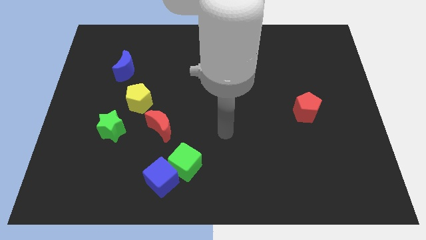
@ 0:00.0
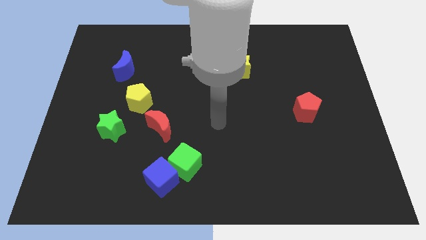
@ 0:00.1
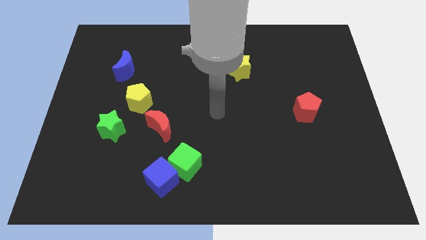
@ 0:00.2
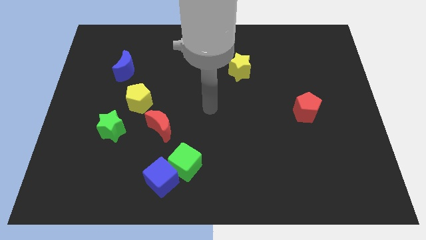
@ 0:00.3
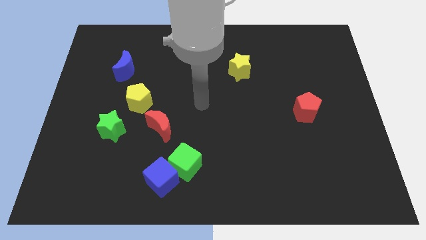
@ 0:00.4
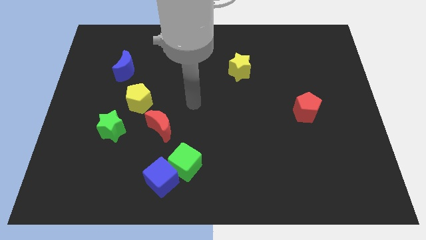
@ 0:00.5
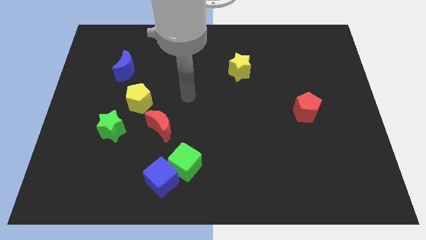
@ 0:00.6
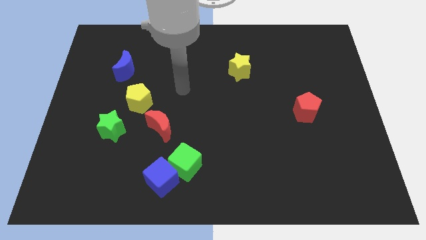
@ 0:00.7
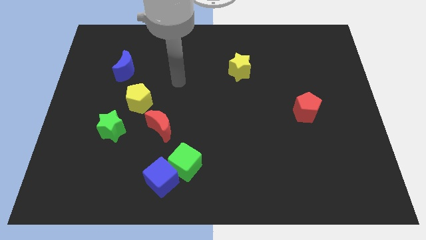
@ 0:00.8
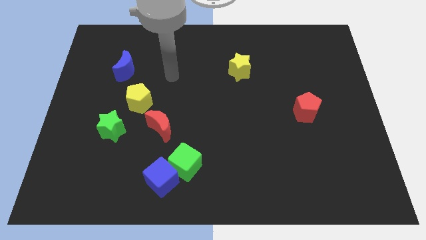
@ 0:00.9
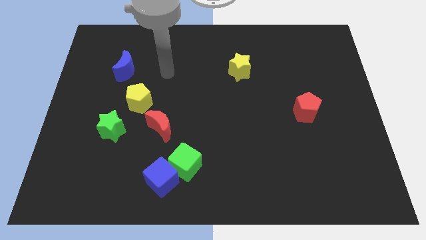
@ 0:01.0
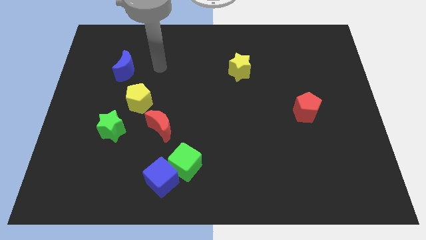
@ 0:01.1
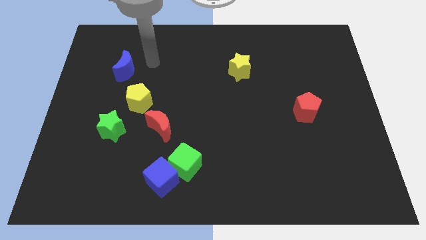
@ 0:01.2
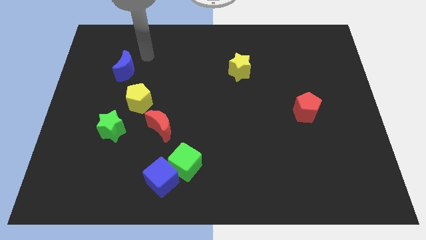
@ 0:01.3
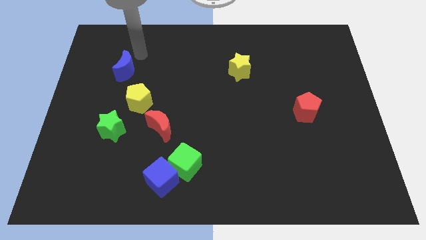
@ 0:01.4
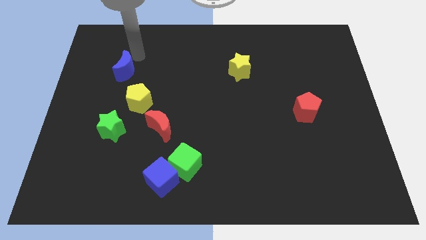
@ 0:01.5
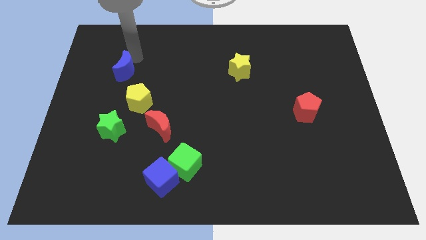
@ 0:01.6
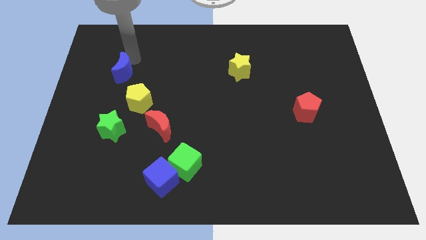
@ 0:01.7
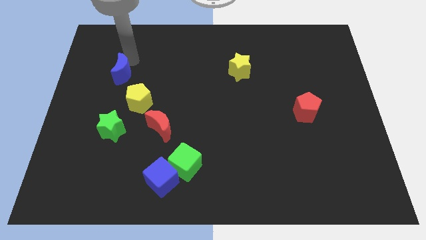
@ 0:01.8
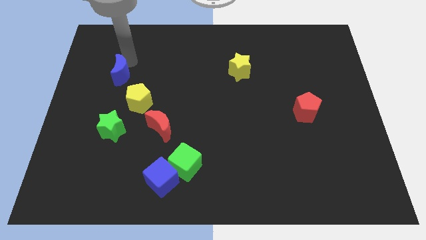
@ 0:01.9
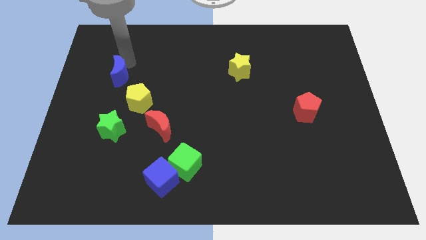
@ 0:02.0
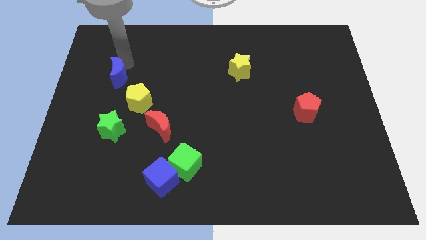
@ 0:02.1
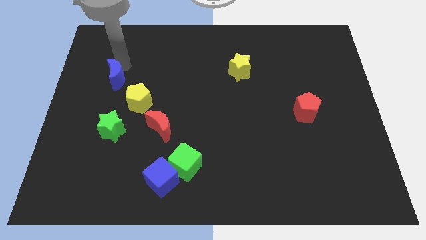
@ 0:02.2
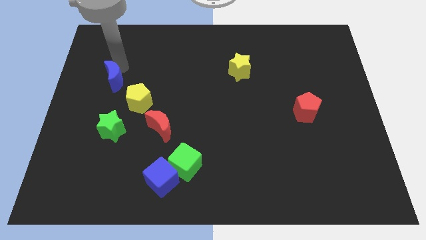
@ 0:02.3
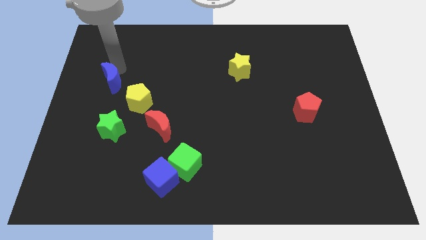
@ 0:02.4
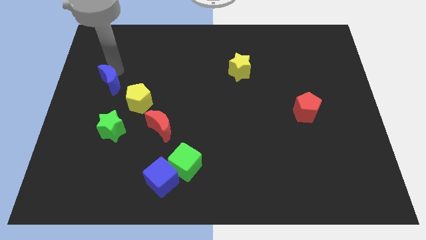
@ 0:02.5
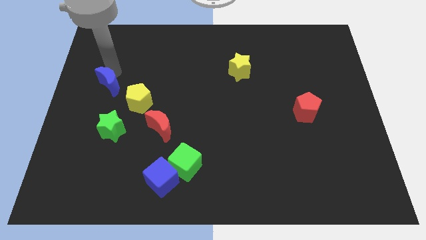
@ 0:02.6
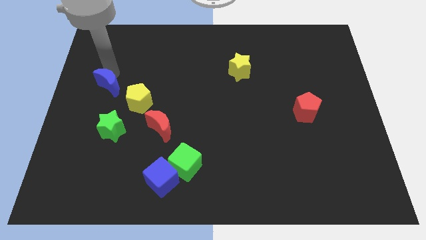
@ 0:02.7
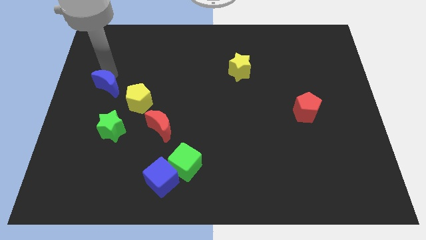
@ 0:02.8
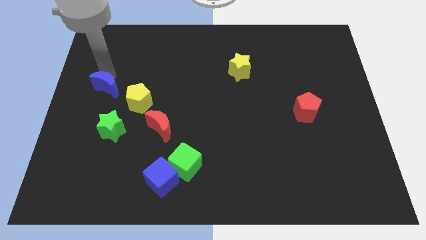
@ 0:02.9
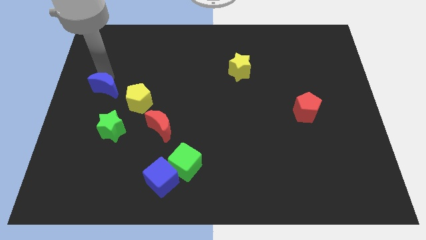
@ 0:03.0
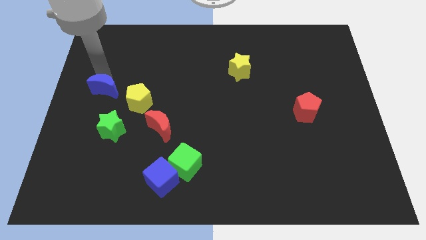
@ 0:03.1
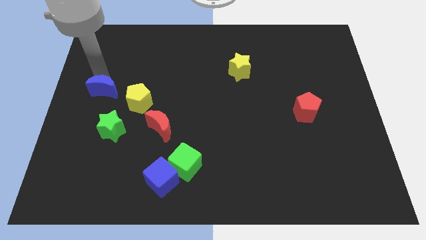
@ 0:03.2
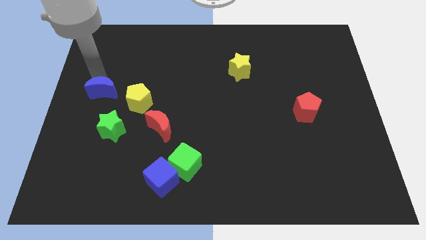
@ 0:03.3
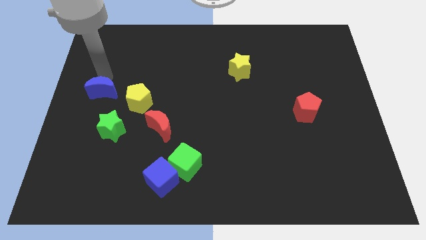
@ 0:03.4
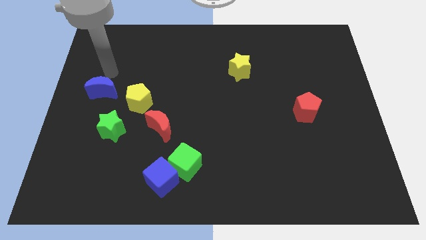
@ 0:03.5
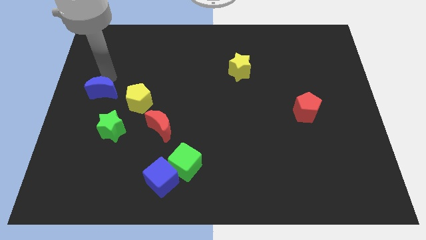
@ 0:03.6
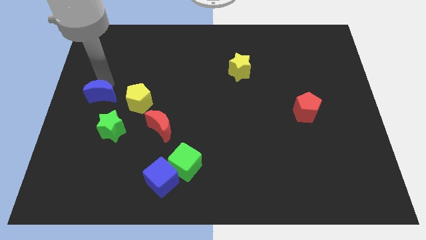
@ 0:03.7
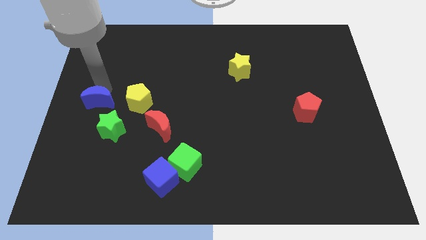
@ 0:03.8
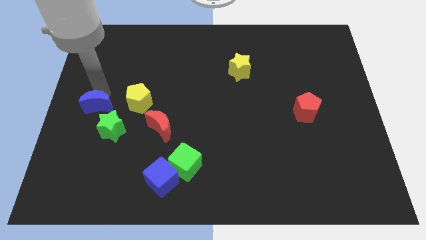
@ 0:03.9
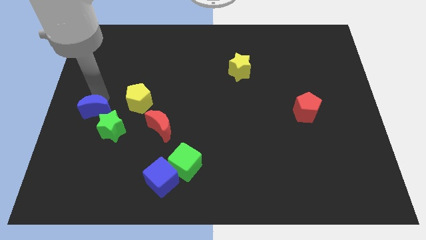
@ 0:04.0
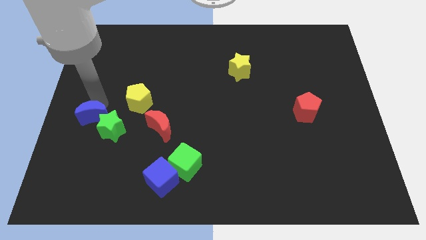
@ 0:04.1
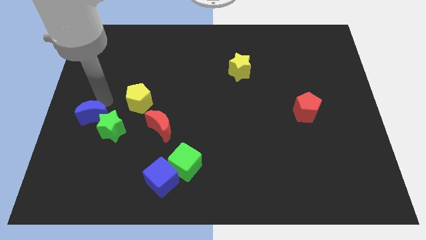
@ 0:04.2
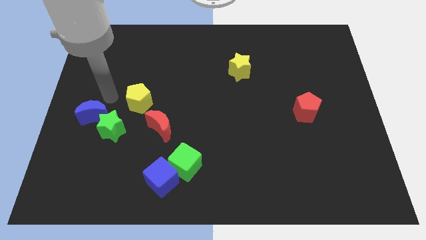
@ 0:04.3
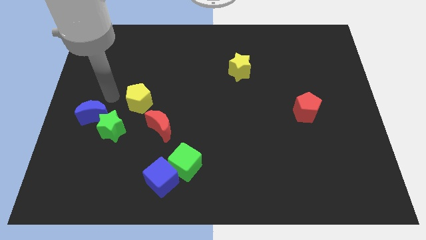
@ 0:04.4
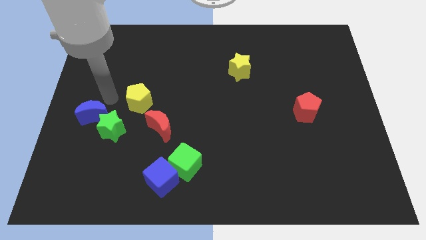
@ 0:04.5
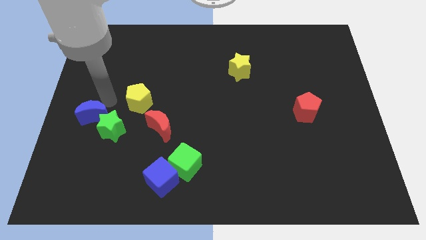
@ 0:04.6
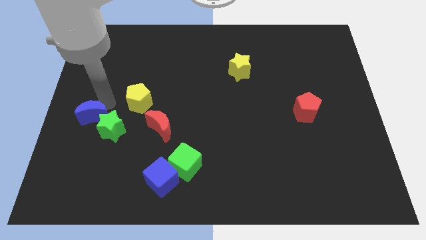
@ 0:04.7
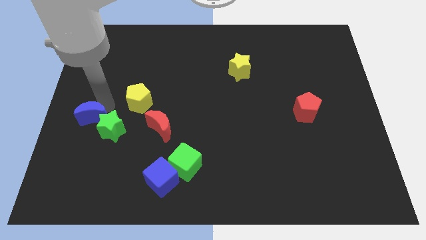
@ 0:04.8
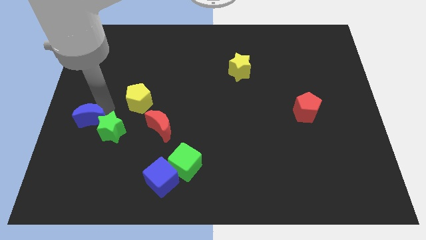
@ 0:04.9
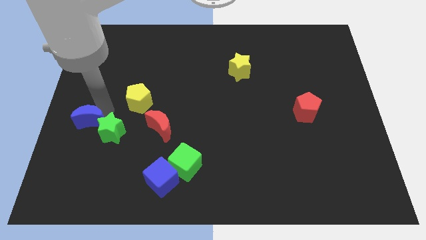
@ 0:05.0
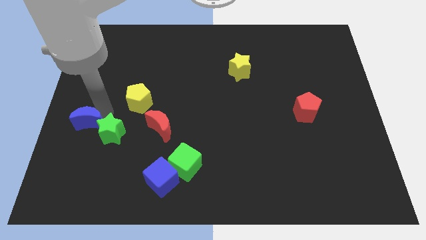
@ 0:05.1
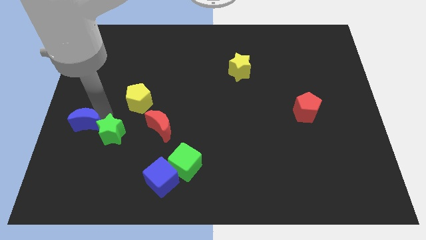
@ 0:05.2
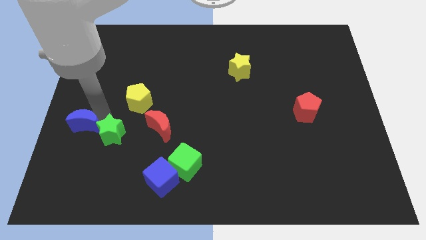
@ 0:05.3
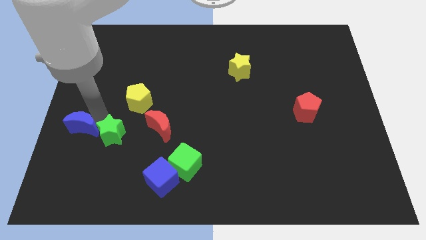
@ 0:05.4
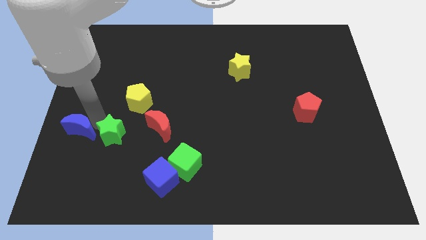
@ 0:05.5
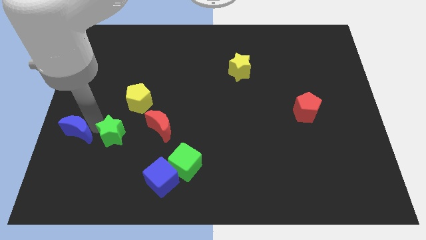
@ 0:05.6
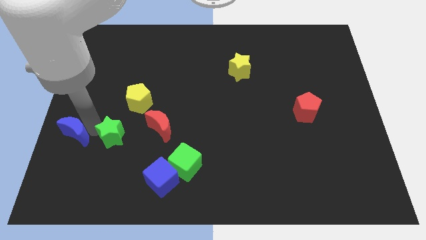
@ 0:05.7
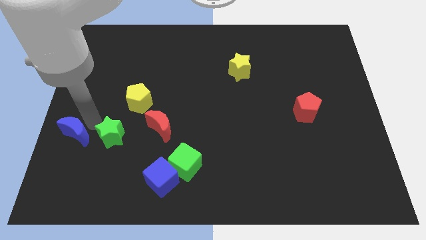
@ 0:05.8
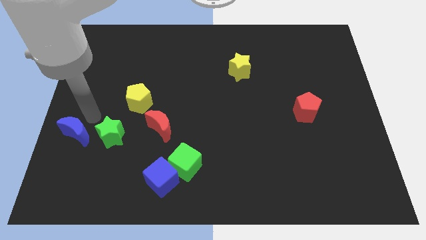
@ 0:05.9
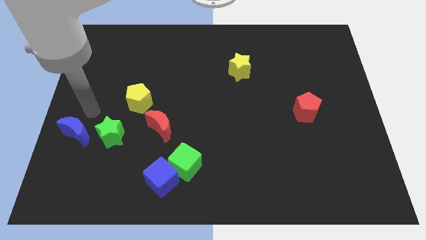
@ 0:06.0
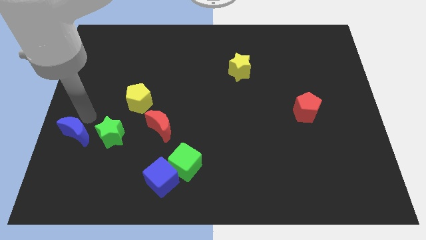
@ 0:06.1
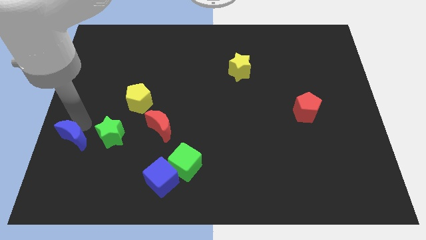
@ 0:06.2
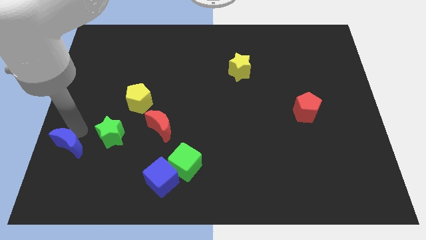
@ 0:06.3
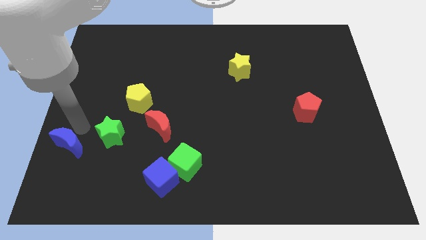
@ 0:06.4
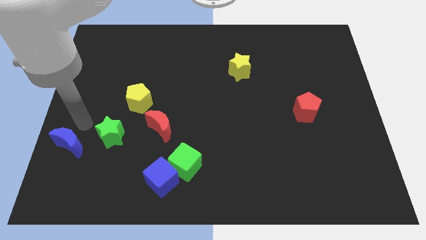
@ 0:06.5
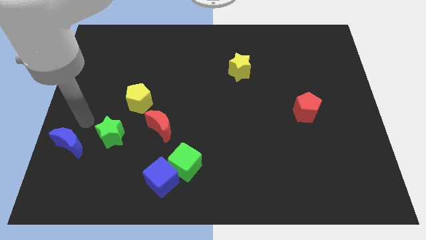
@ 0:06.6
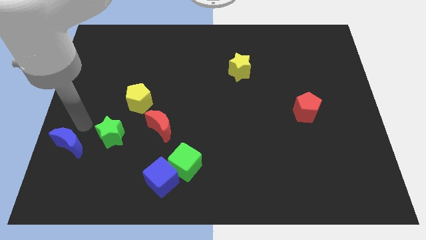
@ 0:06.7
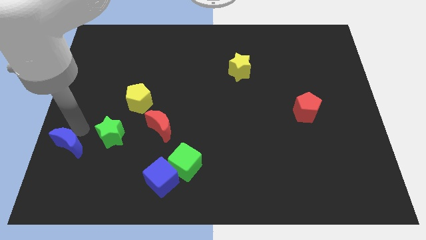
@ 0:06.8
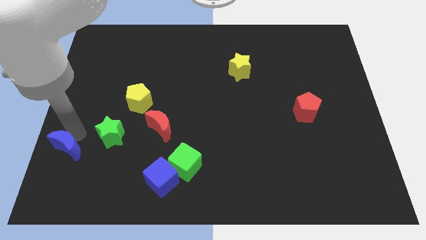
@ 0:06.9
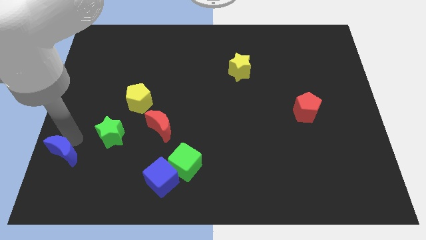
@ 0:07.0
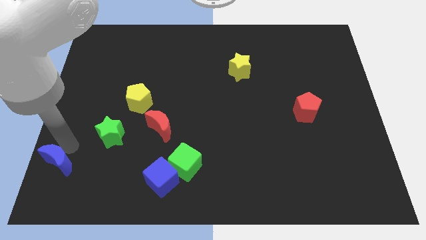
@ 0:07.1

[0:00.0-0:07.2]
move the blue moon to the lower left corner
